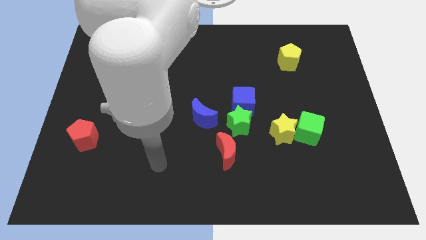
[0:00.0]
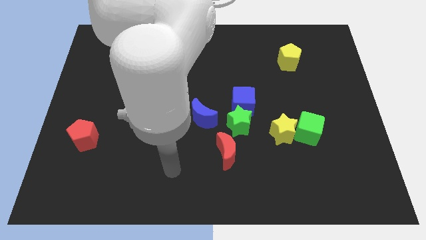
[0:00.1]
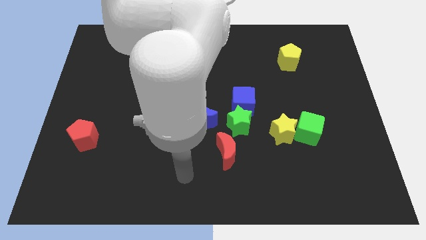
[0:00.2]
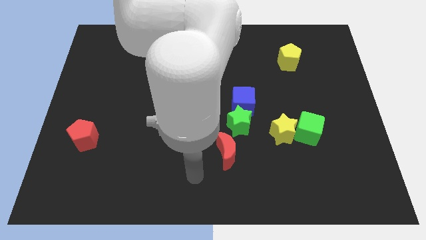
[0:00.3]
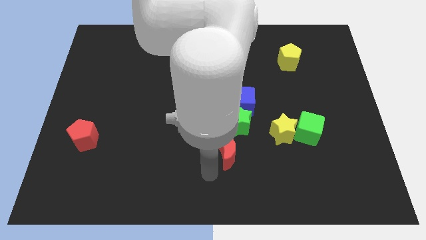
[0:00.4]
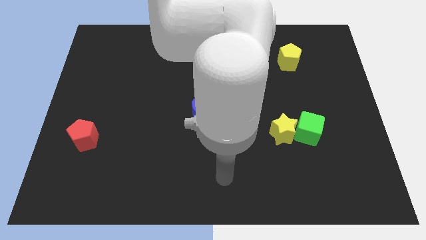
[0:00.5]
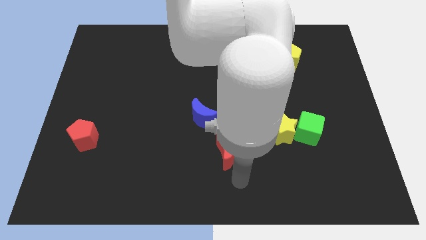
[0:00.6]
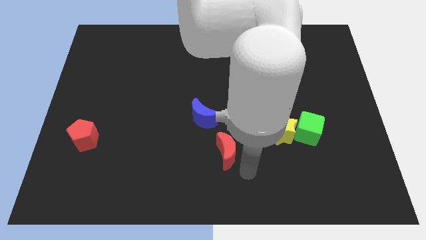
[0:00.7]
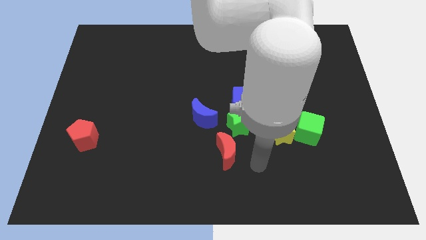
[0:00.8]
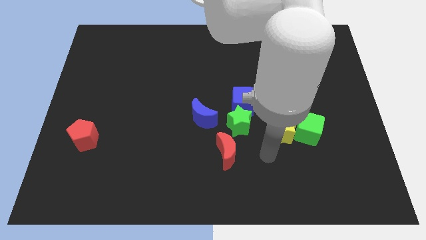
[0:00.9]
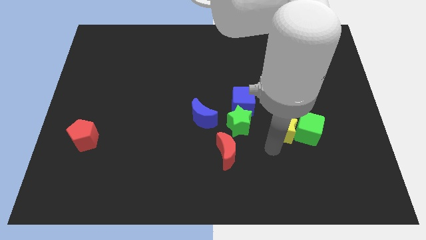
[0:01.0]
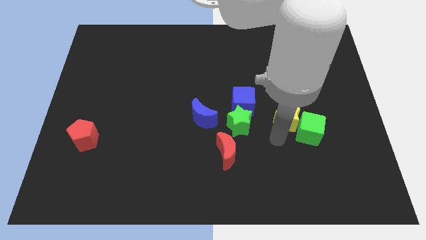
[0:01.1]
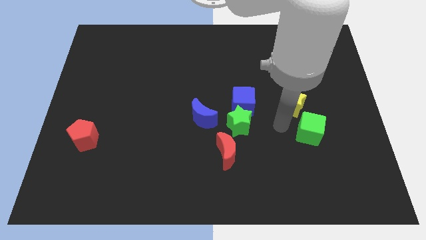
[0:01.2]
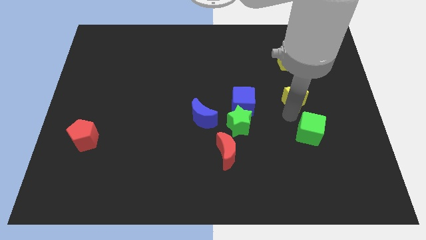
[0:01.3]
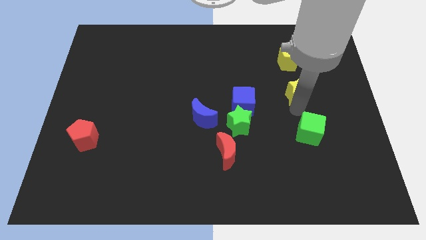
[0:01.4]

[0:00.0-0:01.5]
pull the green cube apart from the yellow star

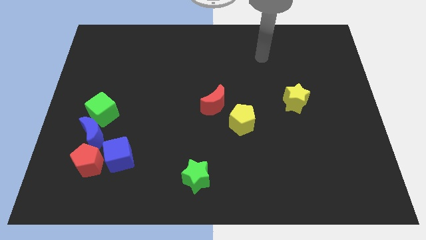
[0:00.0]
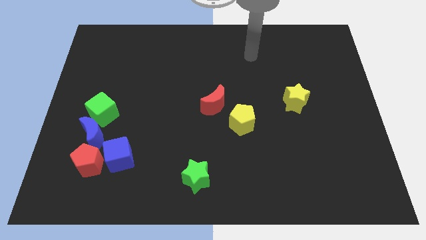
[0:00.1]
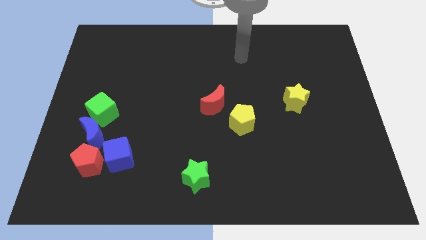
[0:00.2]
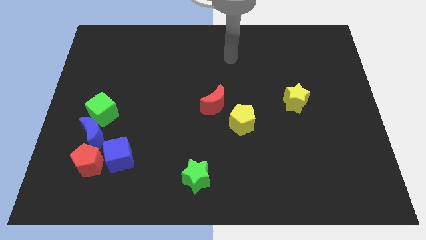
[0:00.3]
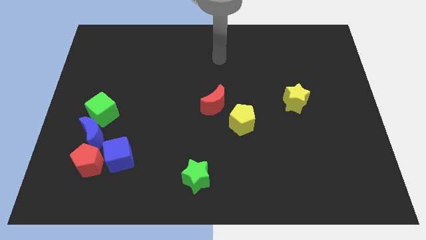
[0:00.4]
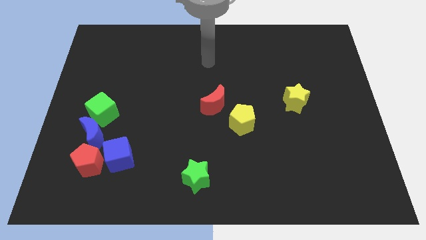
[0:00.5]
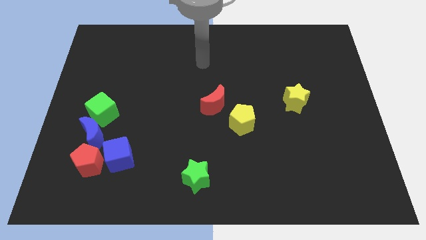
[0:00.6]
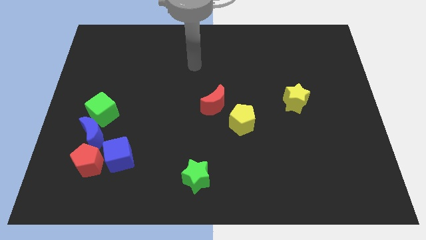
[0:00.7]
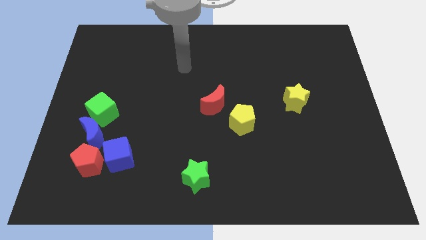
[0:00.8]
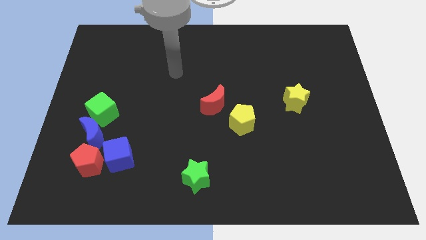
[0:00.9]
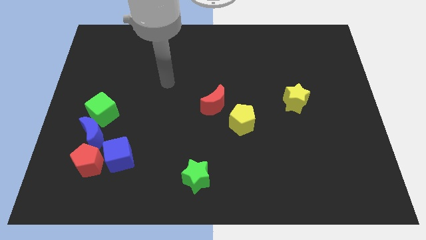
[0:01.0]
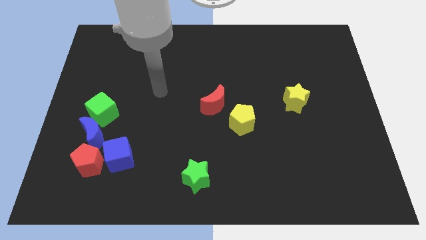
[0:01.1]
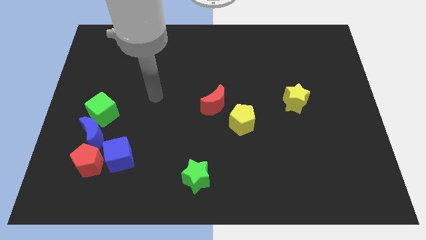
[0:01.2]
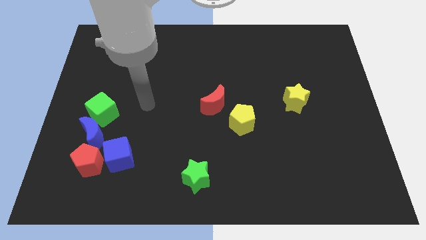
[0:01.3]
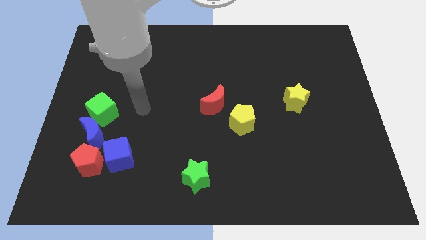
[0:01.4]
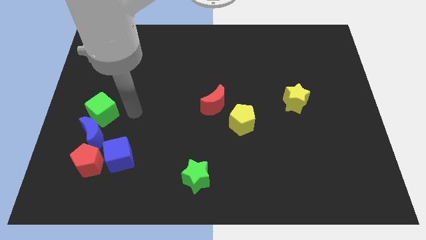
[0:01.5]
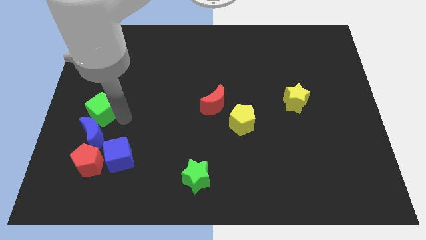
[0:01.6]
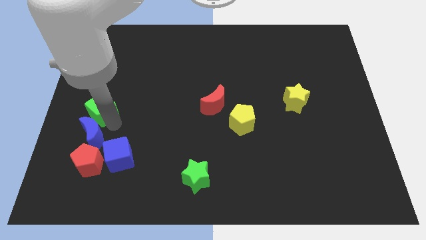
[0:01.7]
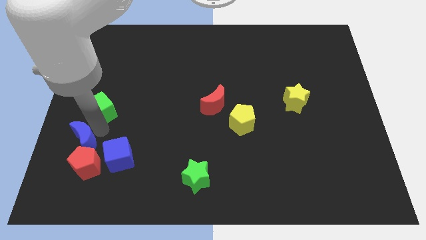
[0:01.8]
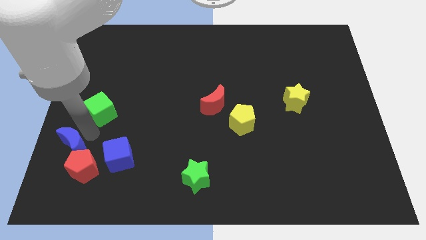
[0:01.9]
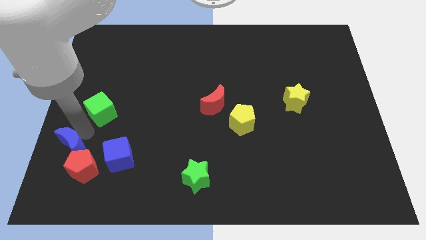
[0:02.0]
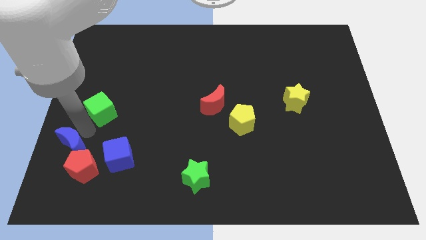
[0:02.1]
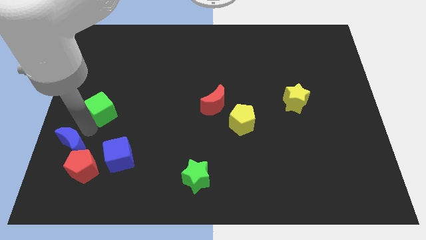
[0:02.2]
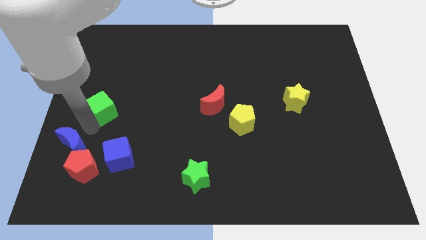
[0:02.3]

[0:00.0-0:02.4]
separate the green cube from the blue moon

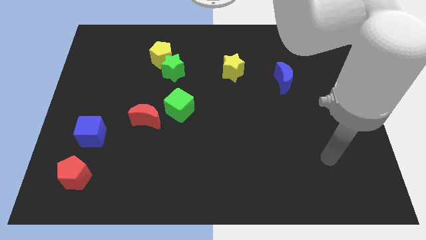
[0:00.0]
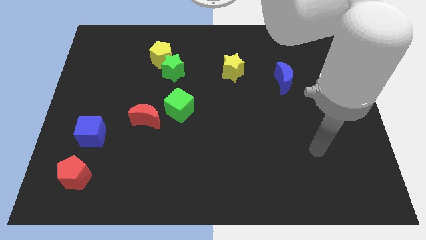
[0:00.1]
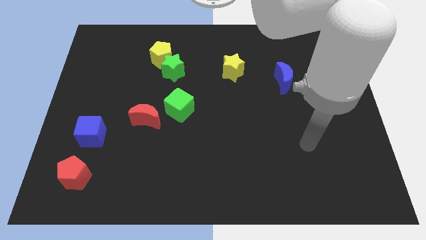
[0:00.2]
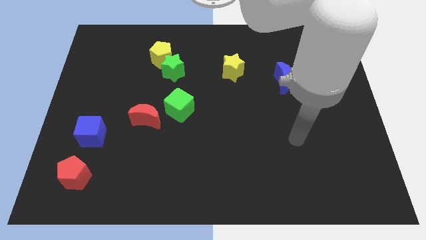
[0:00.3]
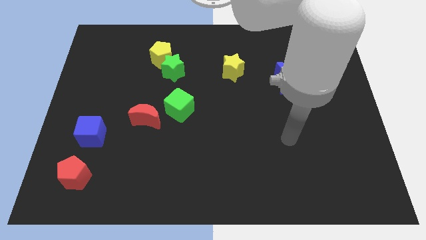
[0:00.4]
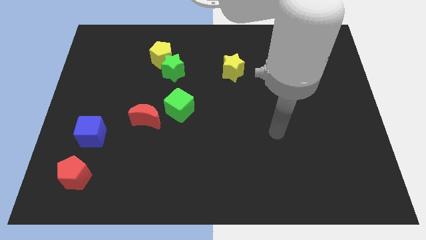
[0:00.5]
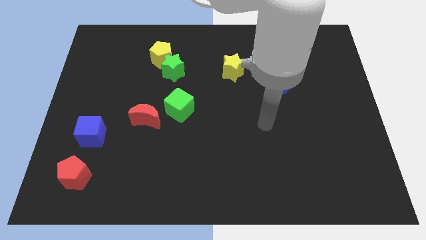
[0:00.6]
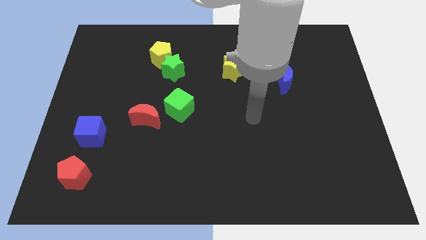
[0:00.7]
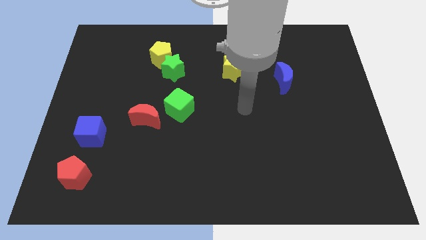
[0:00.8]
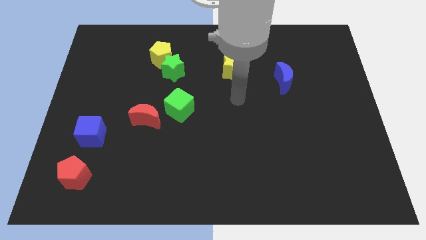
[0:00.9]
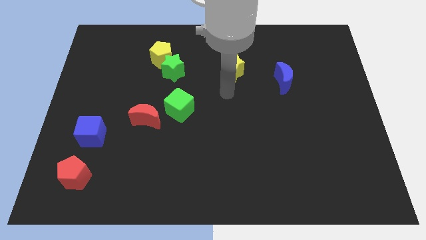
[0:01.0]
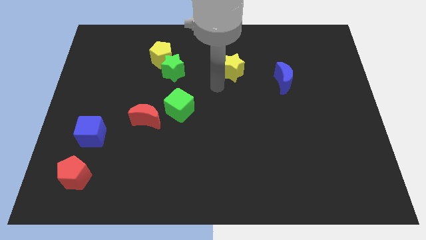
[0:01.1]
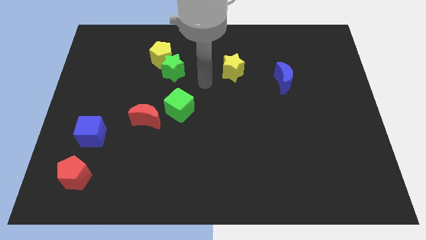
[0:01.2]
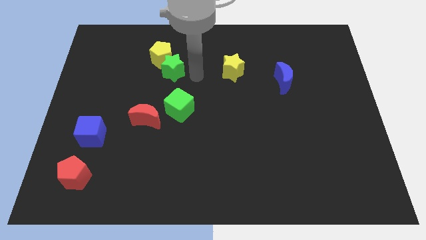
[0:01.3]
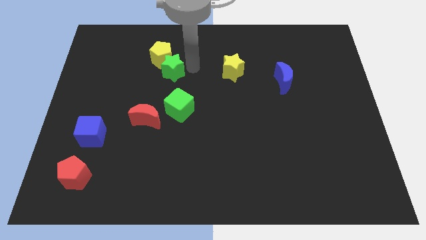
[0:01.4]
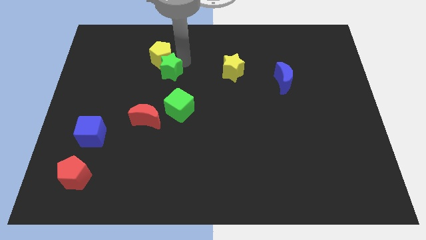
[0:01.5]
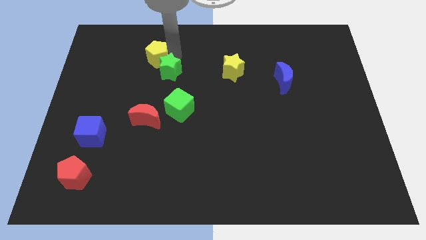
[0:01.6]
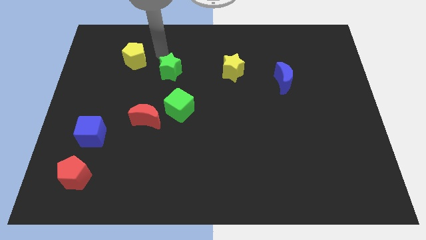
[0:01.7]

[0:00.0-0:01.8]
separate the green star from the yellow pentagon

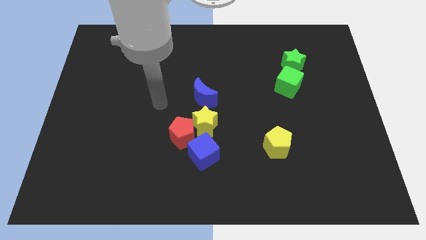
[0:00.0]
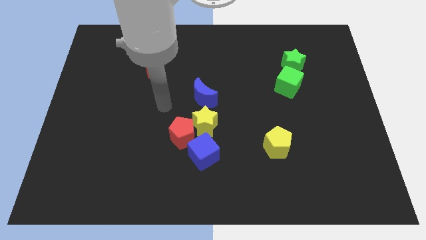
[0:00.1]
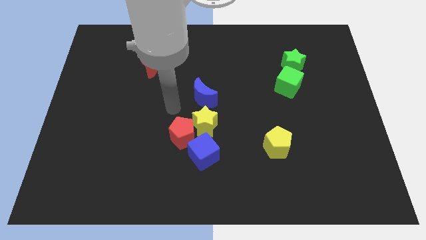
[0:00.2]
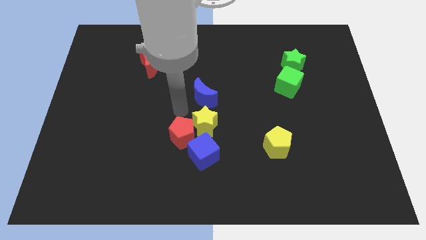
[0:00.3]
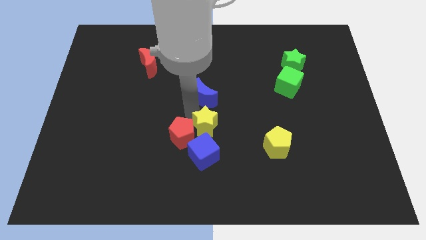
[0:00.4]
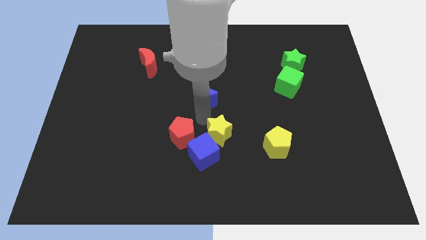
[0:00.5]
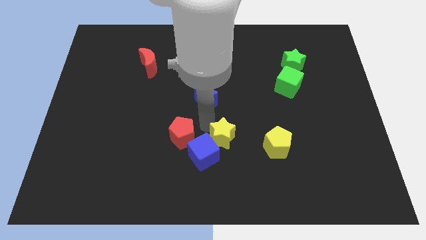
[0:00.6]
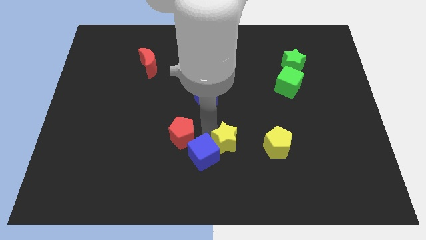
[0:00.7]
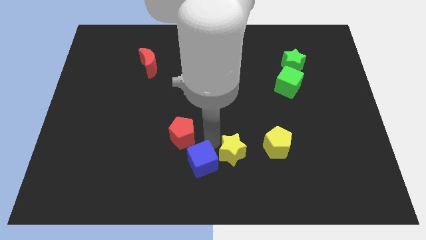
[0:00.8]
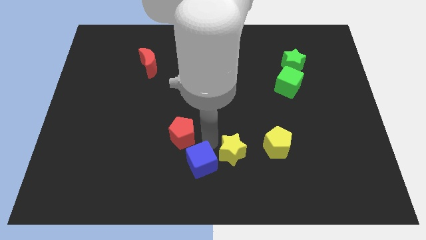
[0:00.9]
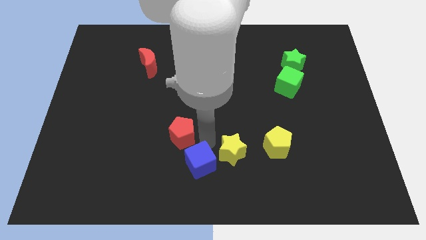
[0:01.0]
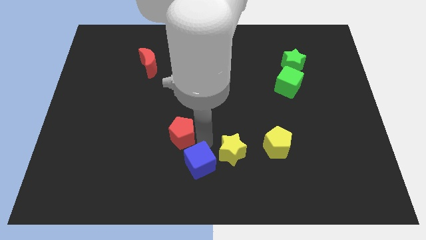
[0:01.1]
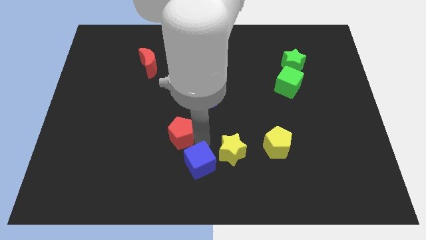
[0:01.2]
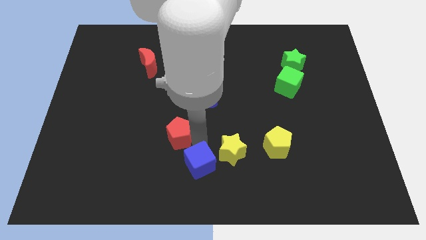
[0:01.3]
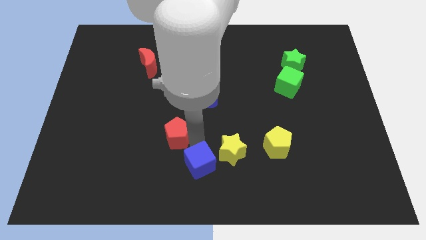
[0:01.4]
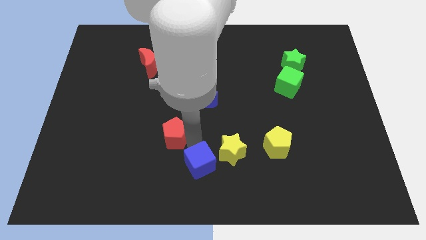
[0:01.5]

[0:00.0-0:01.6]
move the red pentagon away from the yellow star and blue cube

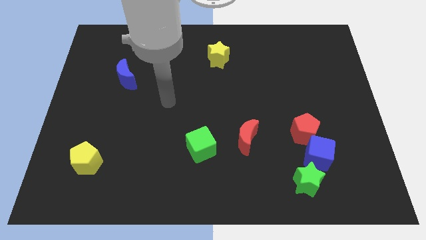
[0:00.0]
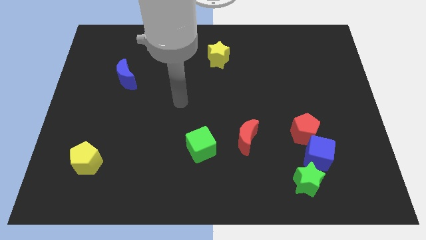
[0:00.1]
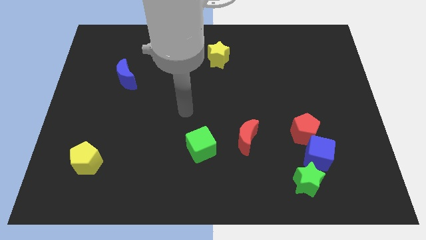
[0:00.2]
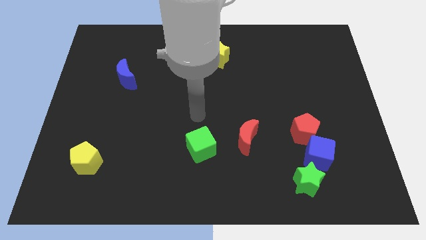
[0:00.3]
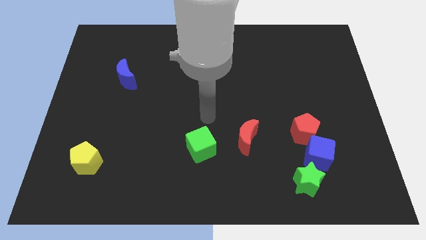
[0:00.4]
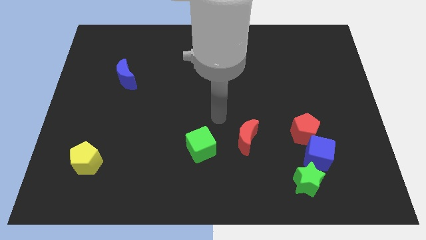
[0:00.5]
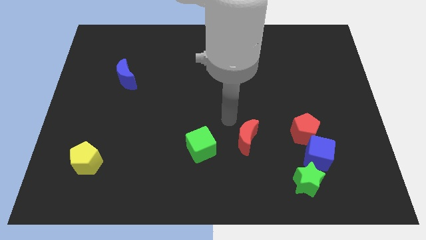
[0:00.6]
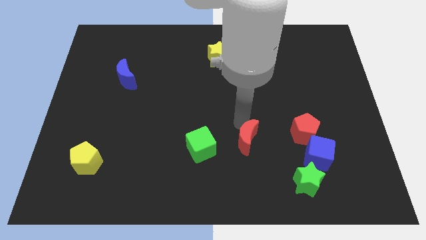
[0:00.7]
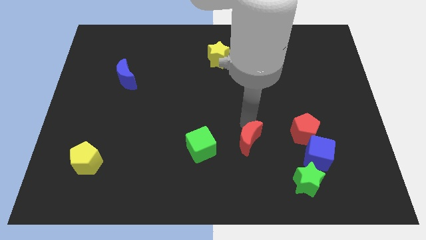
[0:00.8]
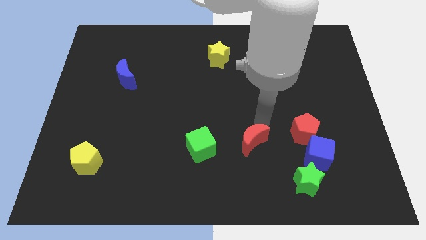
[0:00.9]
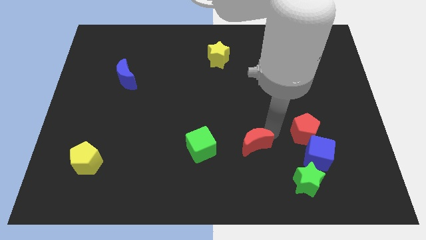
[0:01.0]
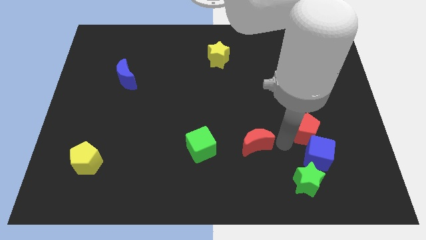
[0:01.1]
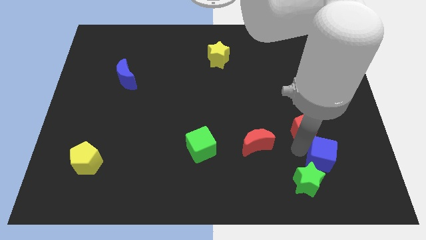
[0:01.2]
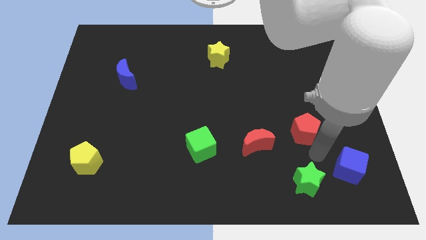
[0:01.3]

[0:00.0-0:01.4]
move the red pentagon away from the blue cube

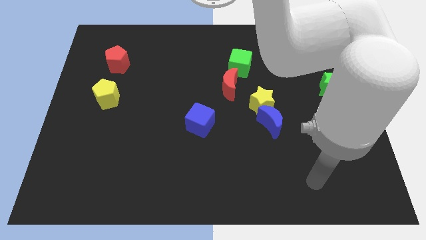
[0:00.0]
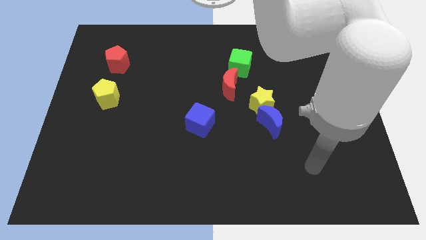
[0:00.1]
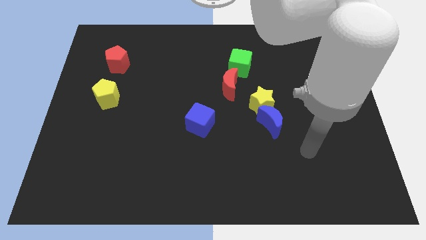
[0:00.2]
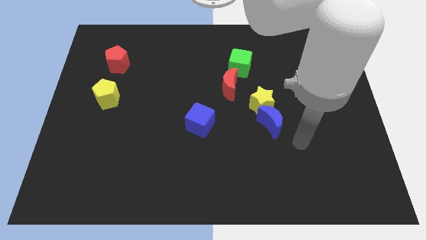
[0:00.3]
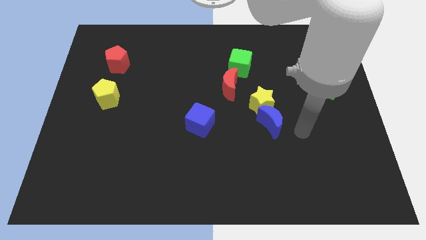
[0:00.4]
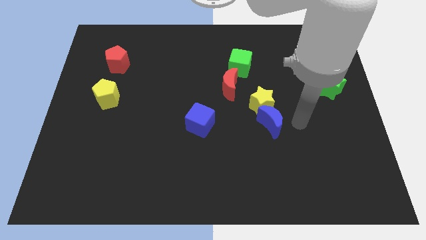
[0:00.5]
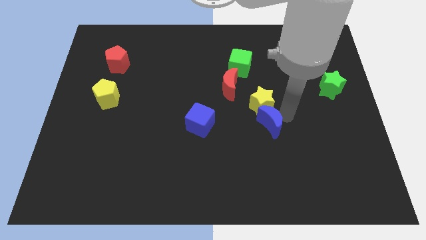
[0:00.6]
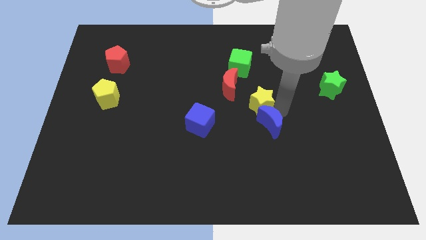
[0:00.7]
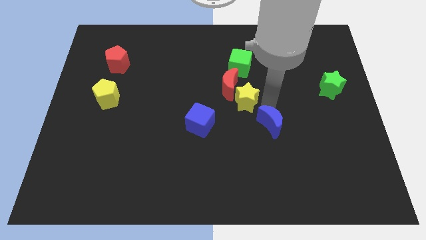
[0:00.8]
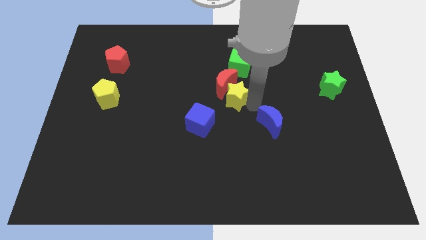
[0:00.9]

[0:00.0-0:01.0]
separate the blue moon from the yellow star
